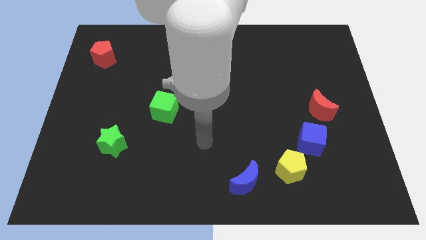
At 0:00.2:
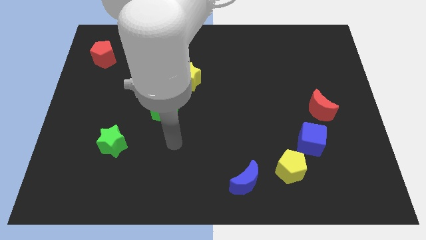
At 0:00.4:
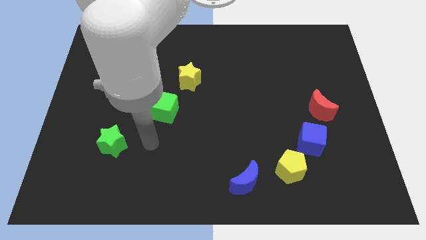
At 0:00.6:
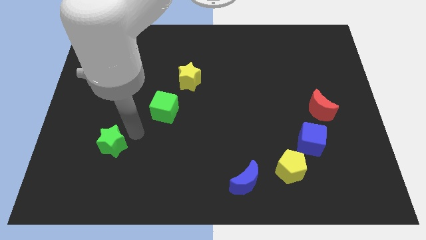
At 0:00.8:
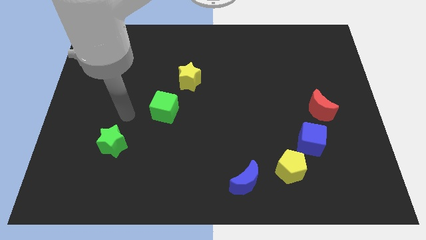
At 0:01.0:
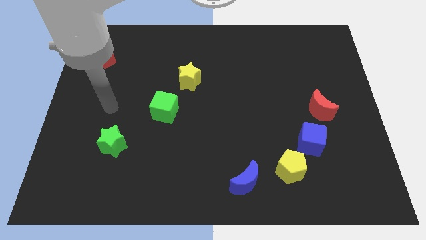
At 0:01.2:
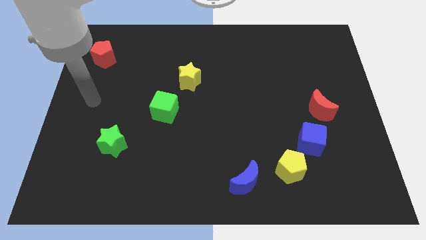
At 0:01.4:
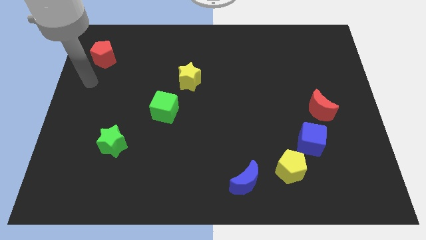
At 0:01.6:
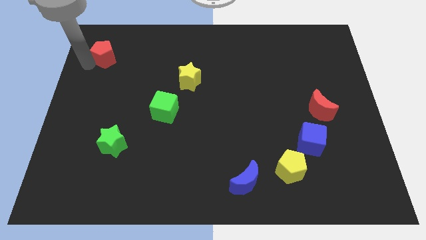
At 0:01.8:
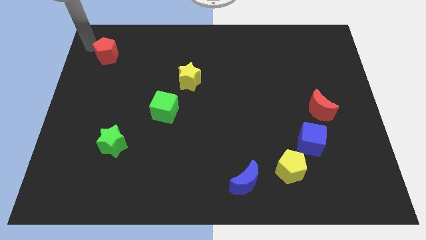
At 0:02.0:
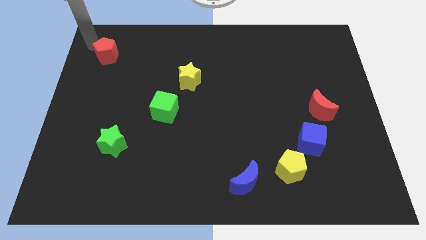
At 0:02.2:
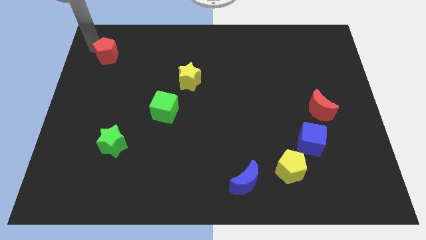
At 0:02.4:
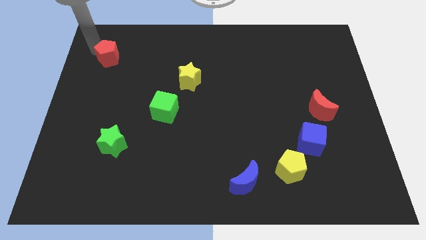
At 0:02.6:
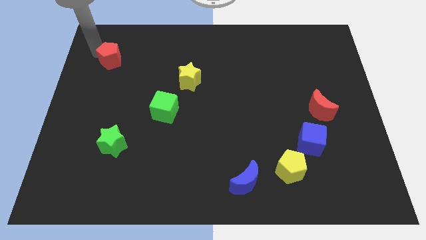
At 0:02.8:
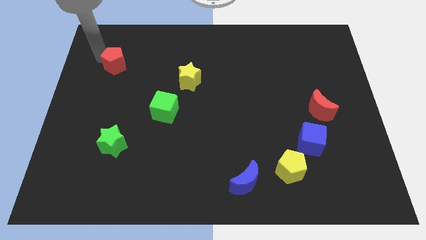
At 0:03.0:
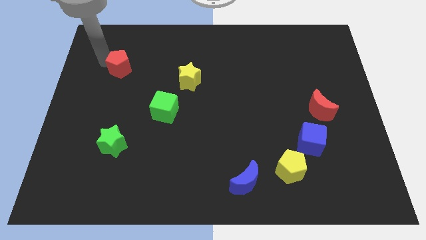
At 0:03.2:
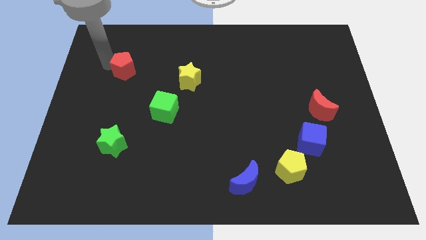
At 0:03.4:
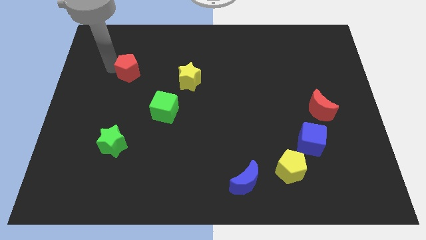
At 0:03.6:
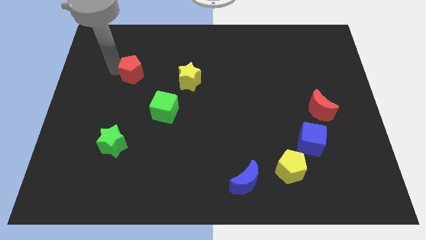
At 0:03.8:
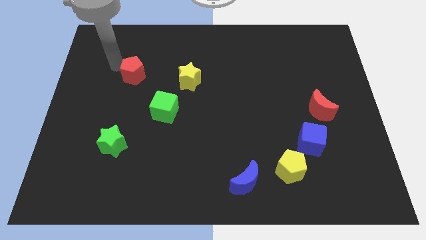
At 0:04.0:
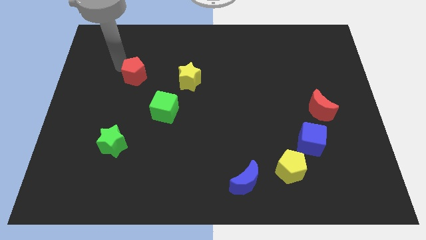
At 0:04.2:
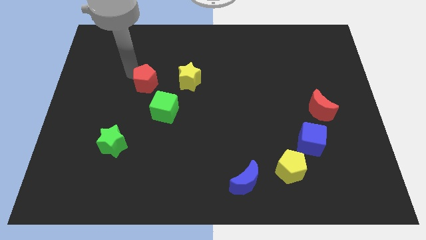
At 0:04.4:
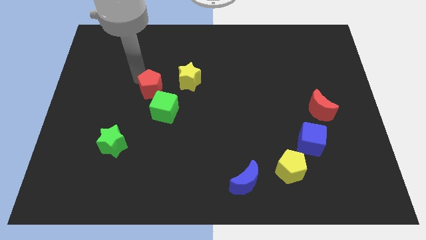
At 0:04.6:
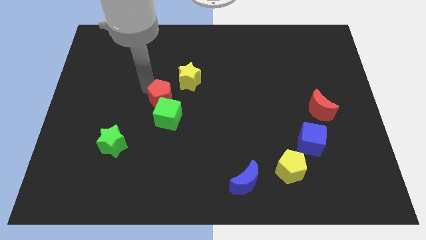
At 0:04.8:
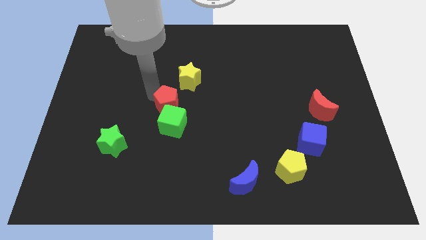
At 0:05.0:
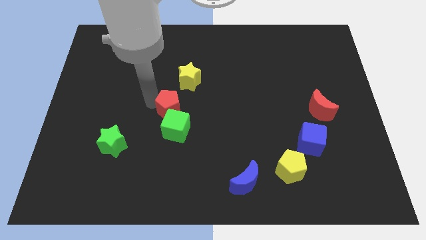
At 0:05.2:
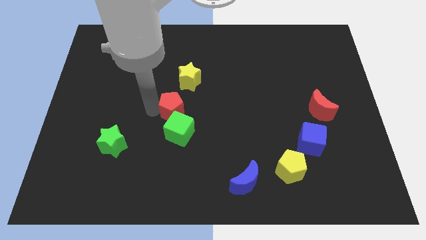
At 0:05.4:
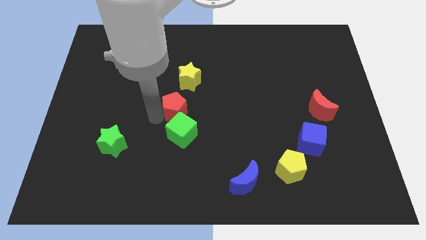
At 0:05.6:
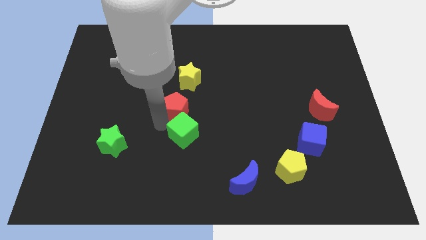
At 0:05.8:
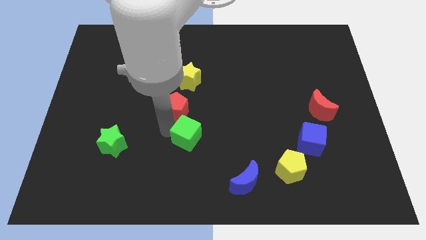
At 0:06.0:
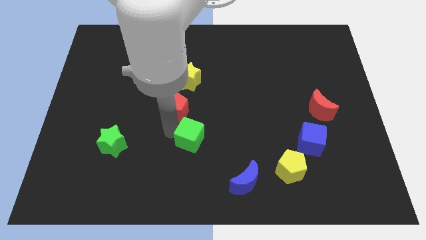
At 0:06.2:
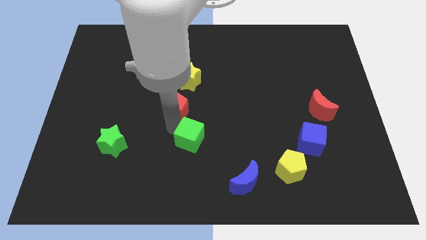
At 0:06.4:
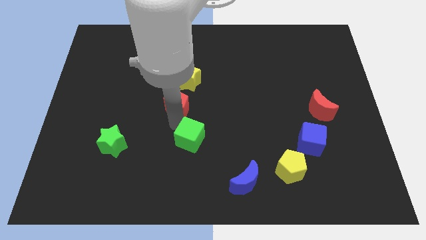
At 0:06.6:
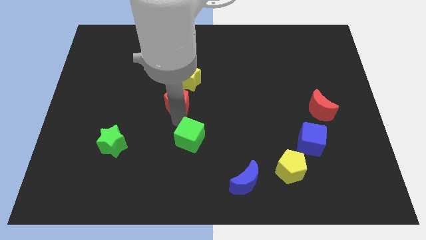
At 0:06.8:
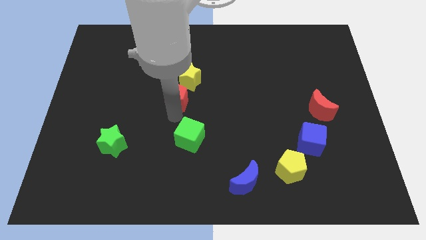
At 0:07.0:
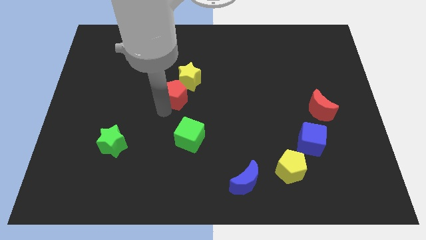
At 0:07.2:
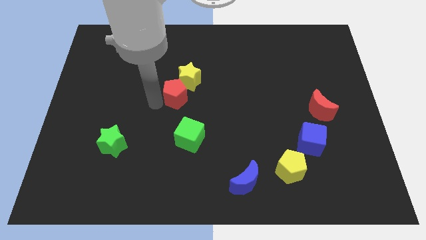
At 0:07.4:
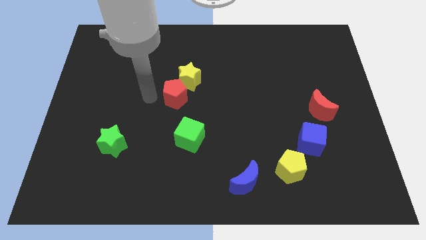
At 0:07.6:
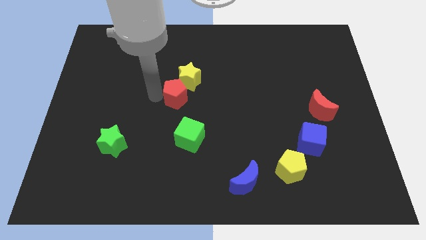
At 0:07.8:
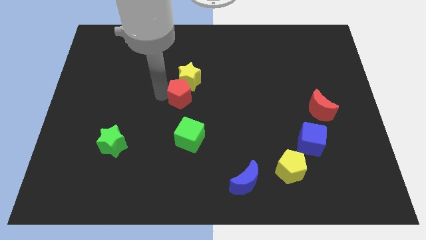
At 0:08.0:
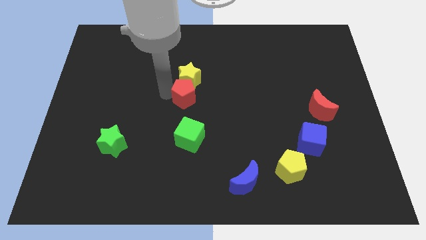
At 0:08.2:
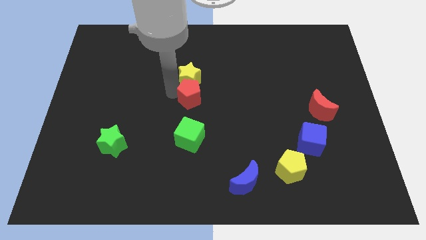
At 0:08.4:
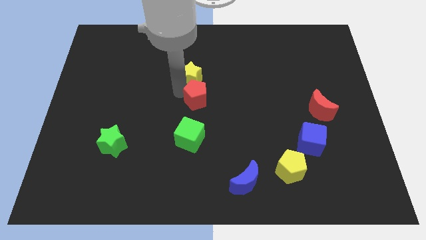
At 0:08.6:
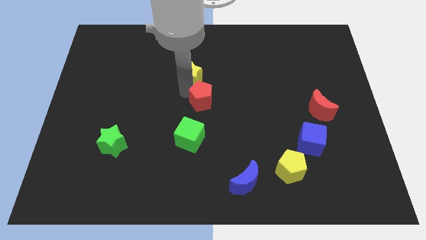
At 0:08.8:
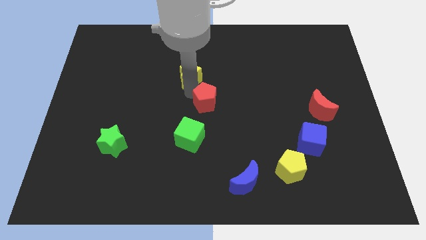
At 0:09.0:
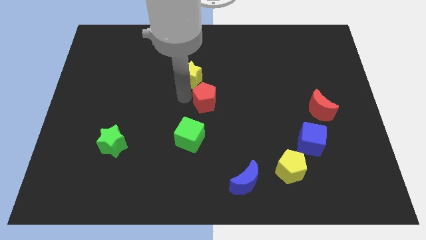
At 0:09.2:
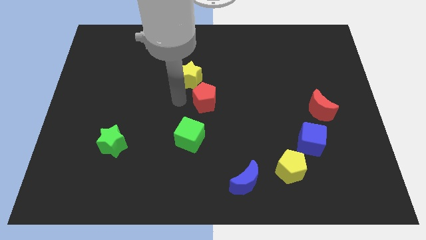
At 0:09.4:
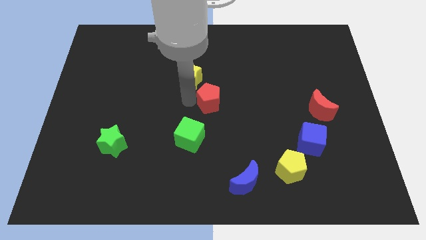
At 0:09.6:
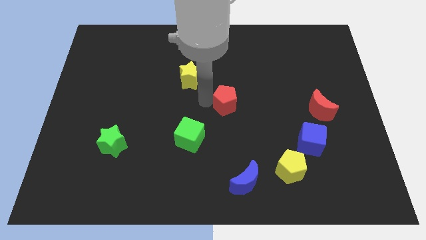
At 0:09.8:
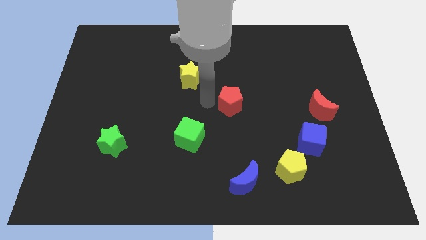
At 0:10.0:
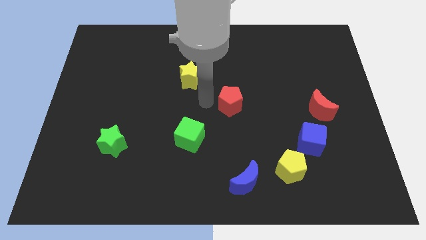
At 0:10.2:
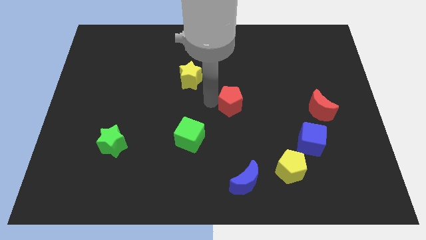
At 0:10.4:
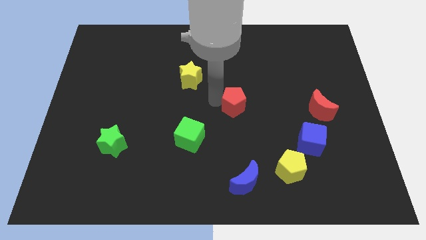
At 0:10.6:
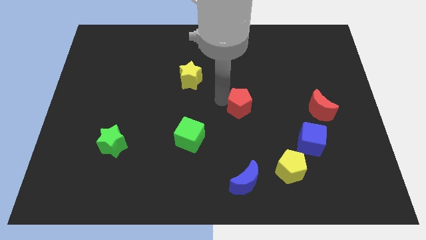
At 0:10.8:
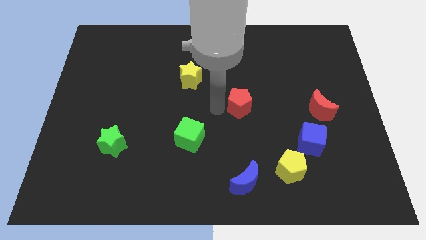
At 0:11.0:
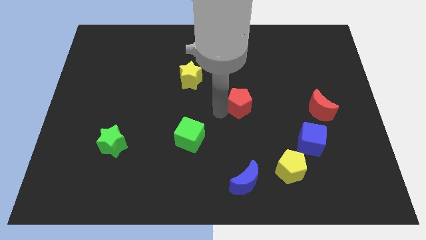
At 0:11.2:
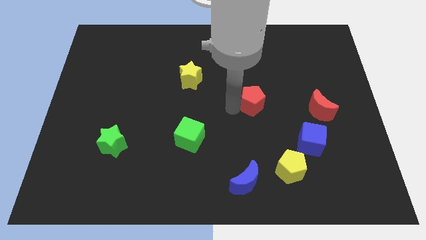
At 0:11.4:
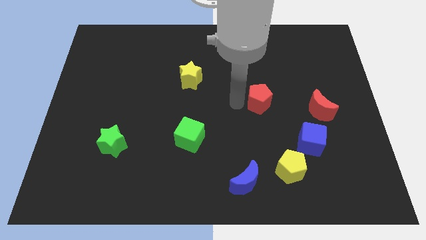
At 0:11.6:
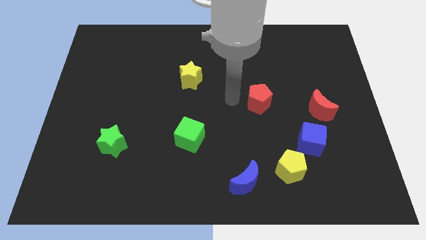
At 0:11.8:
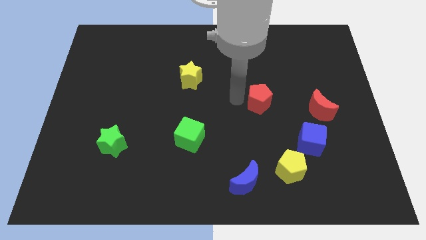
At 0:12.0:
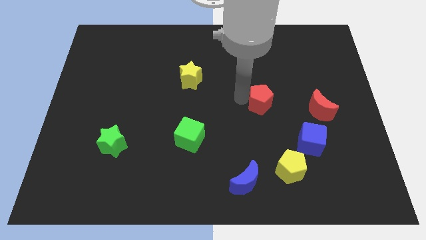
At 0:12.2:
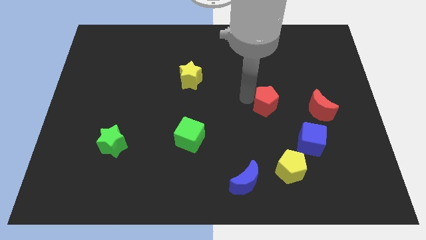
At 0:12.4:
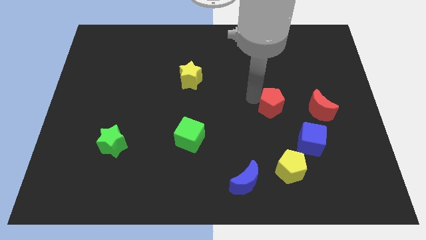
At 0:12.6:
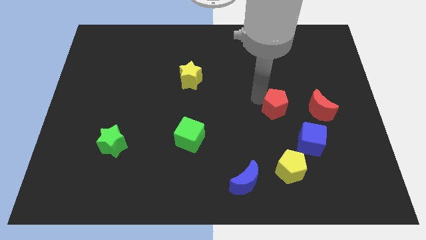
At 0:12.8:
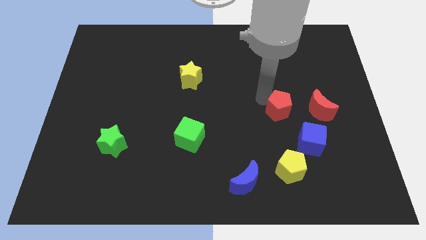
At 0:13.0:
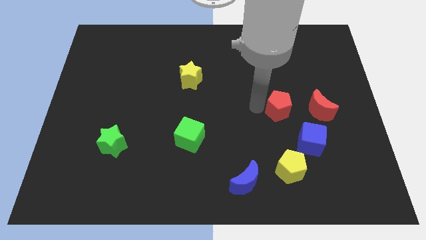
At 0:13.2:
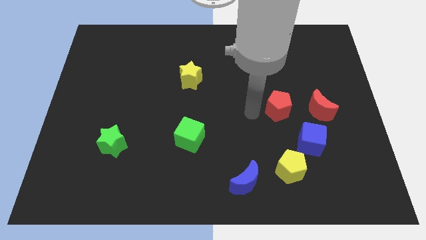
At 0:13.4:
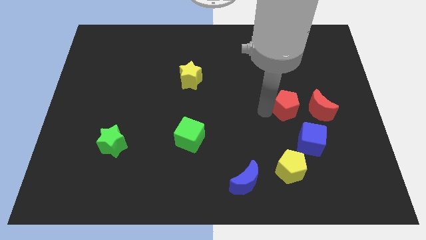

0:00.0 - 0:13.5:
move the red pentagon above the blue cube

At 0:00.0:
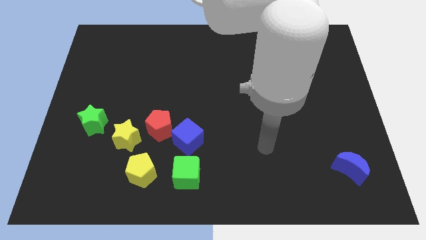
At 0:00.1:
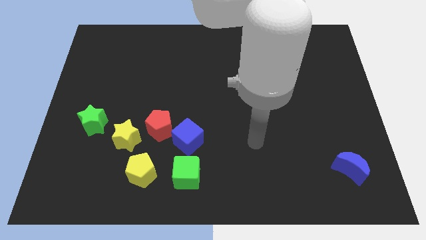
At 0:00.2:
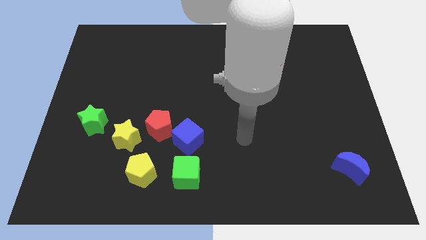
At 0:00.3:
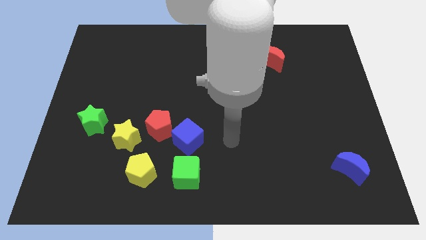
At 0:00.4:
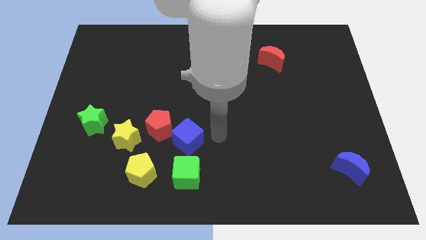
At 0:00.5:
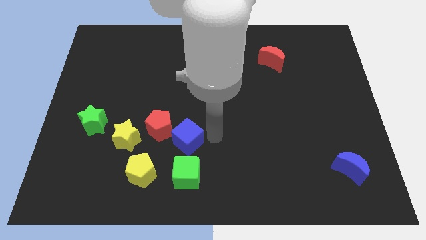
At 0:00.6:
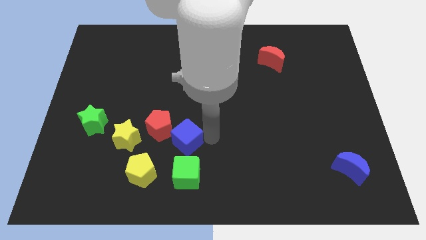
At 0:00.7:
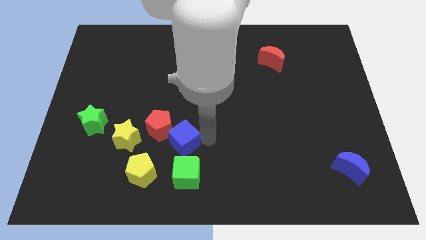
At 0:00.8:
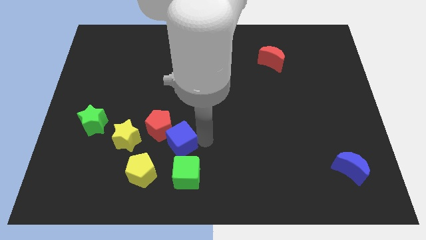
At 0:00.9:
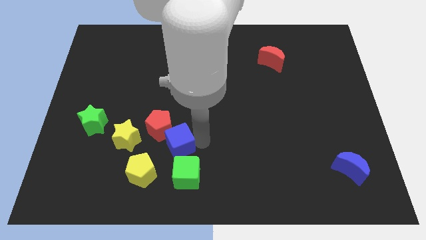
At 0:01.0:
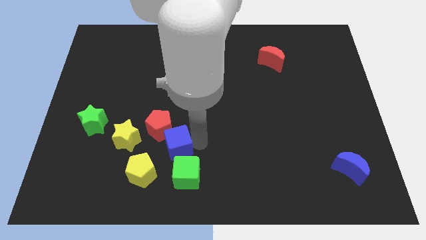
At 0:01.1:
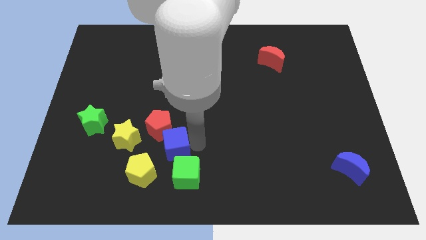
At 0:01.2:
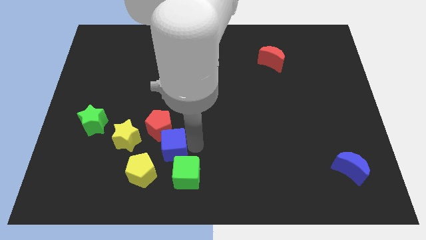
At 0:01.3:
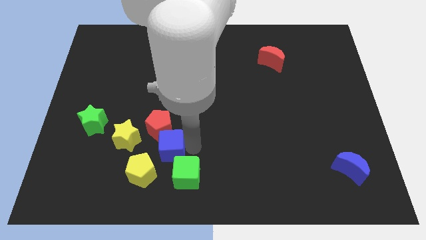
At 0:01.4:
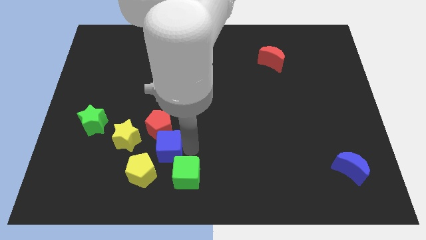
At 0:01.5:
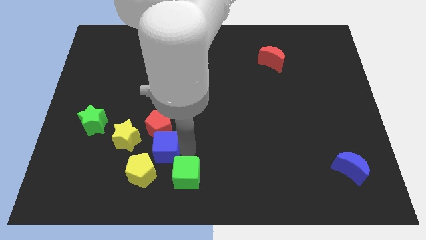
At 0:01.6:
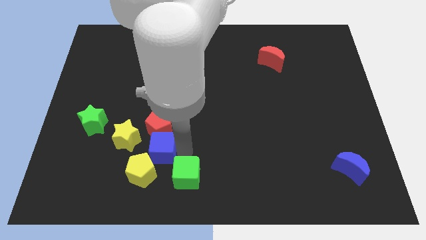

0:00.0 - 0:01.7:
move the blue cube to the bottom left of the red pentagon
